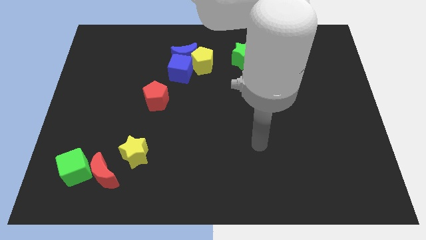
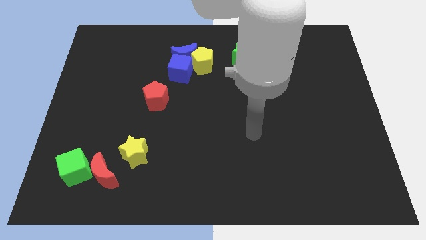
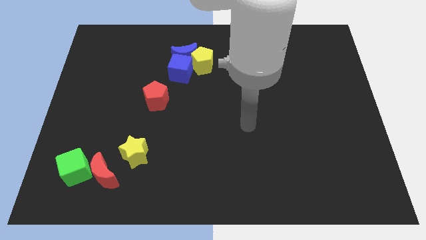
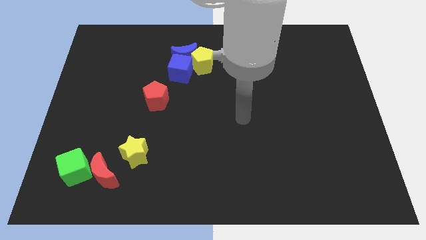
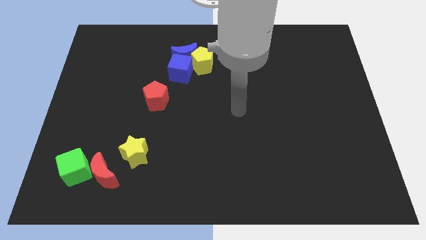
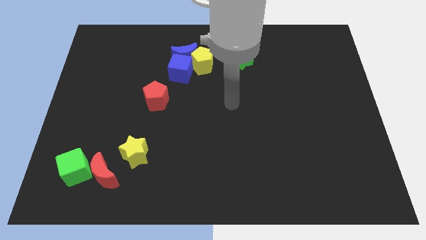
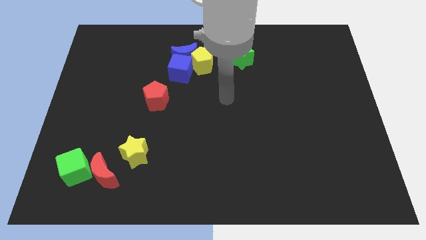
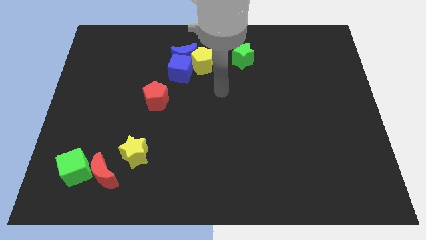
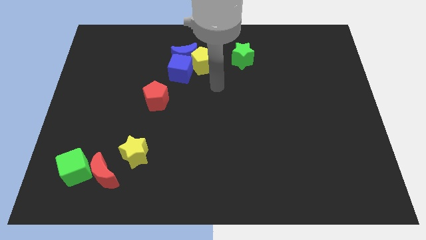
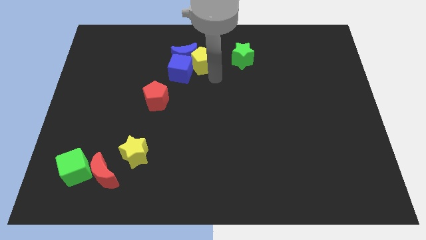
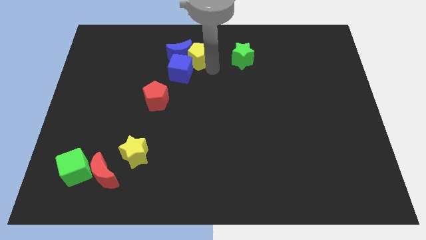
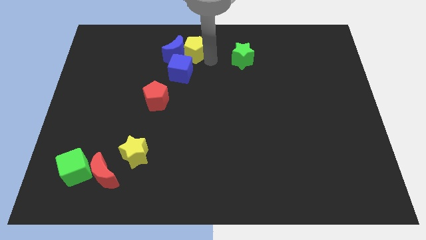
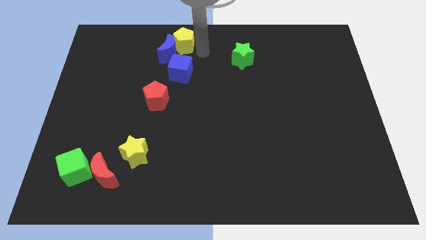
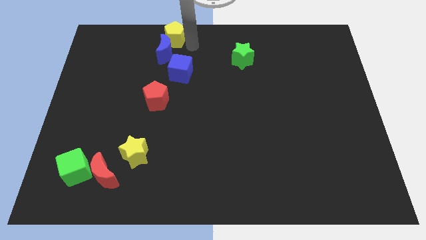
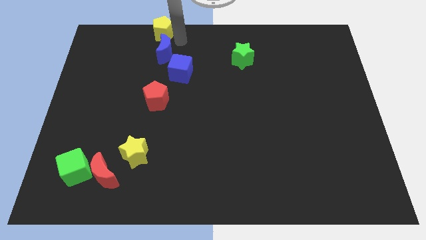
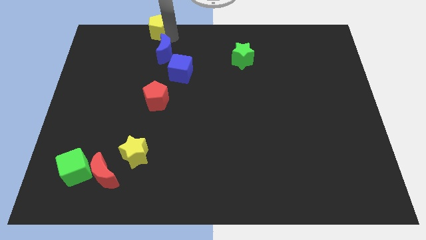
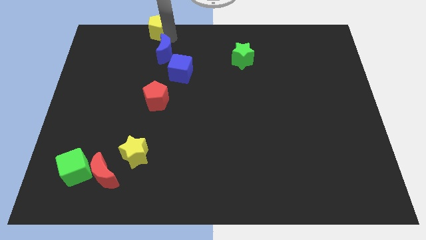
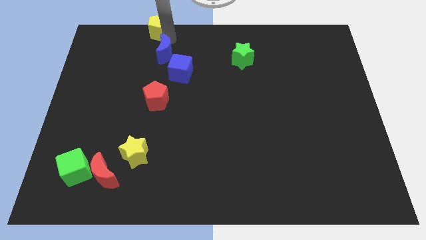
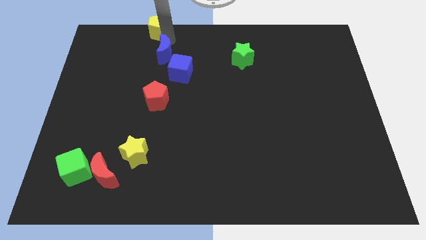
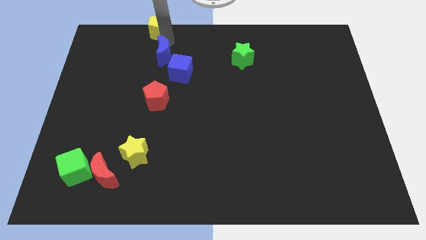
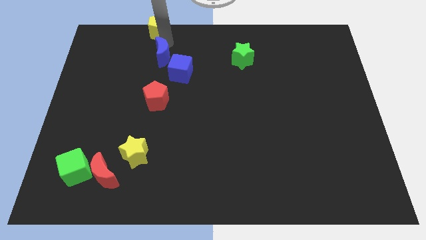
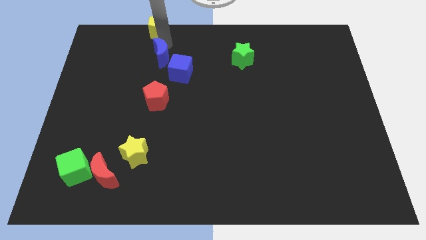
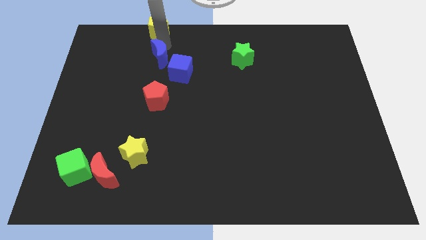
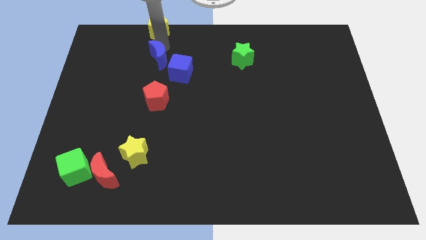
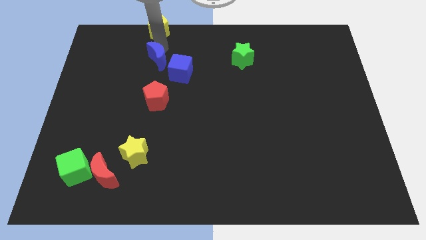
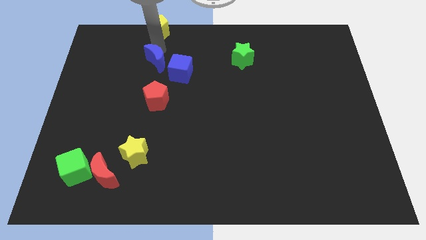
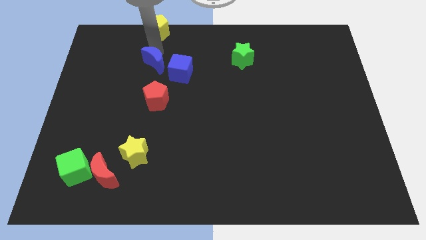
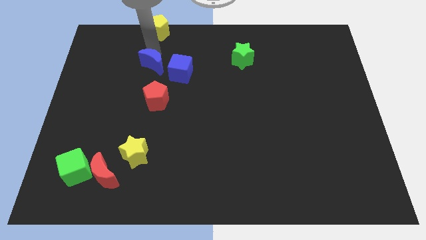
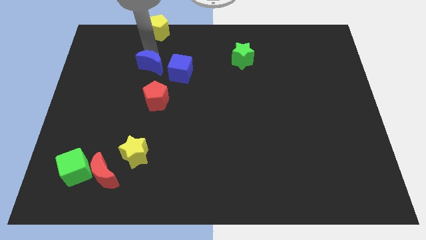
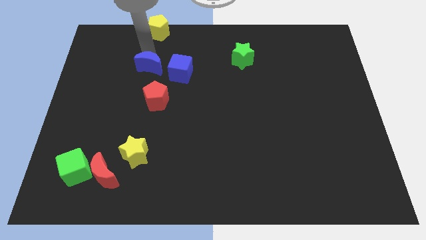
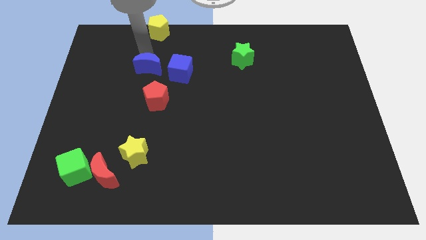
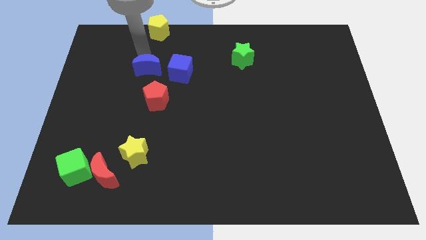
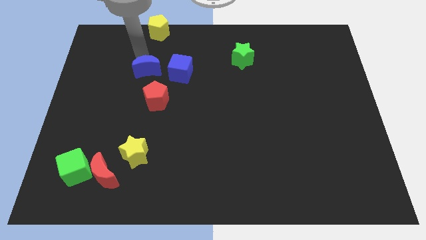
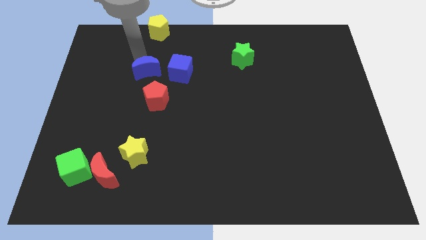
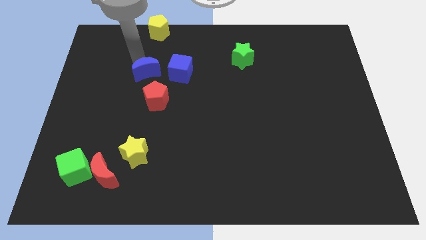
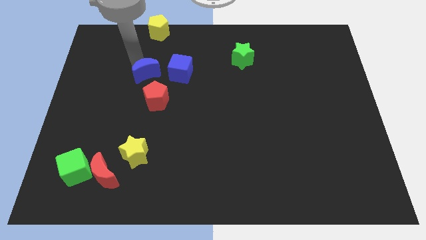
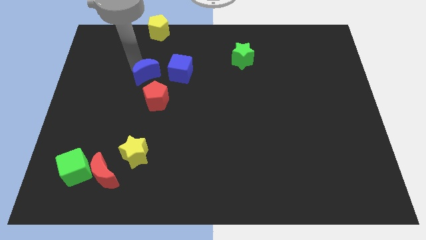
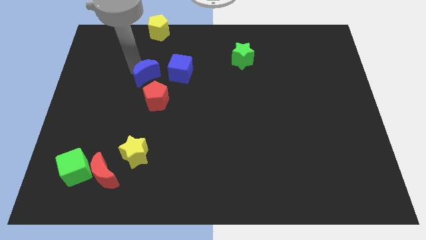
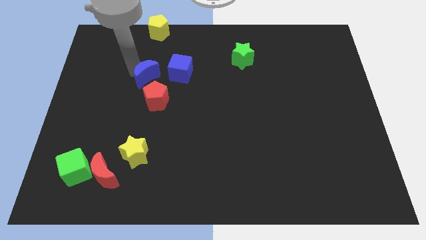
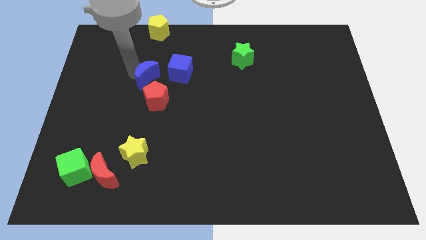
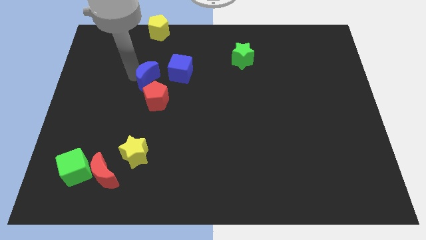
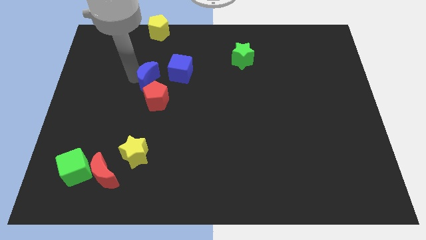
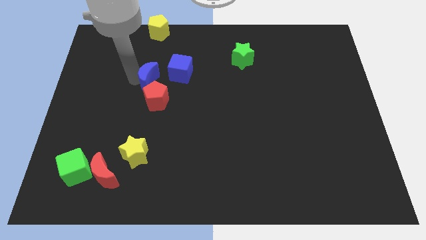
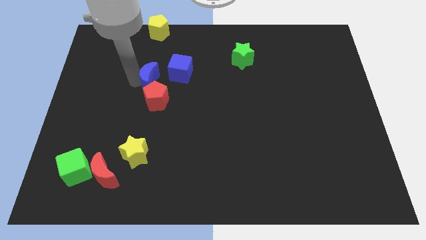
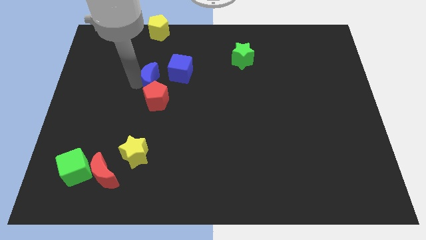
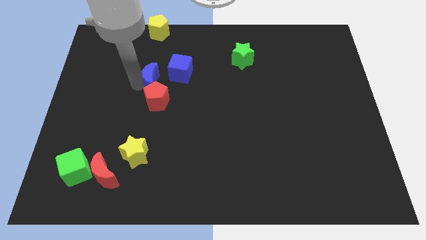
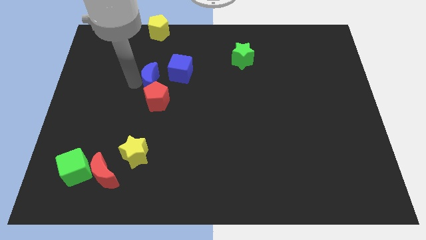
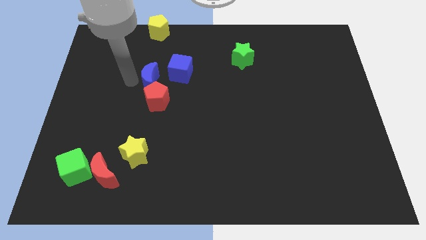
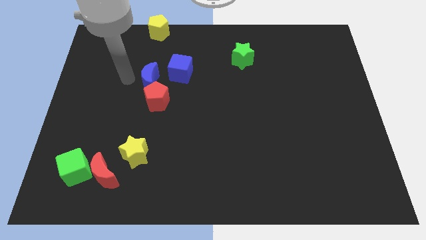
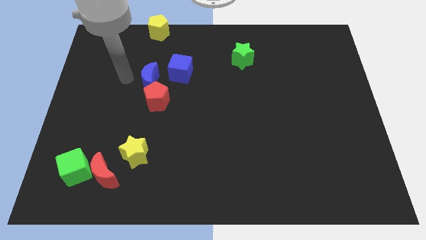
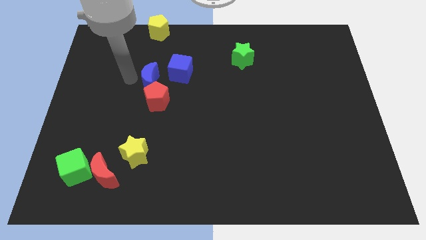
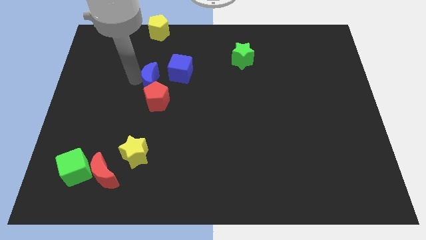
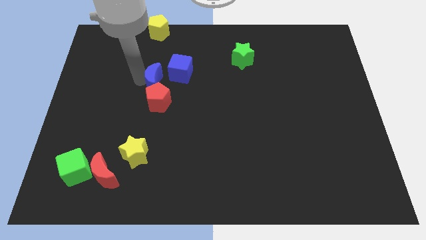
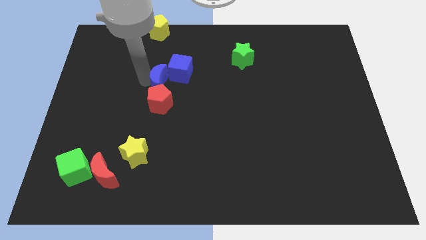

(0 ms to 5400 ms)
slide the blue moon downwards a bit

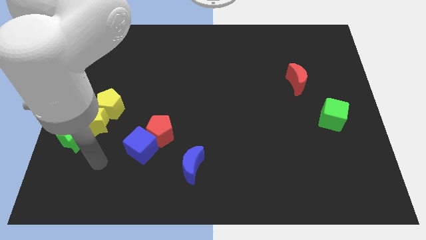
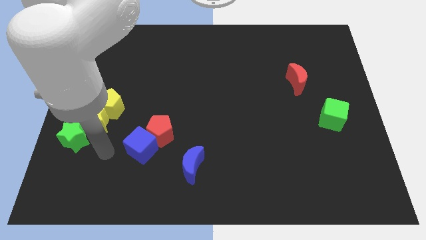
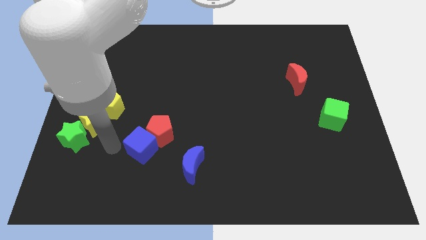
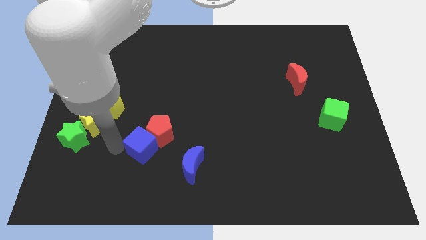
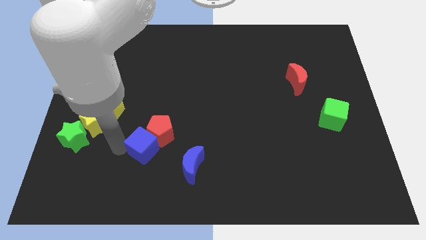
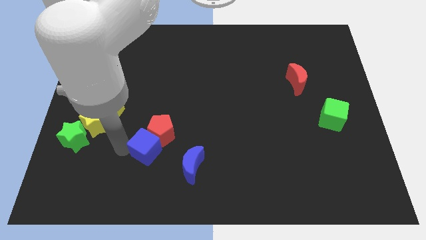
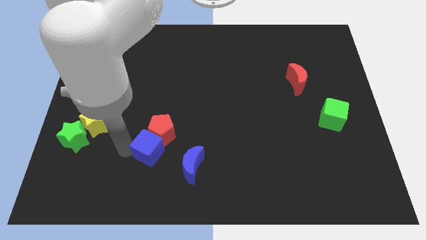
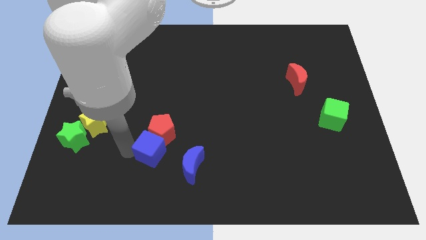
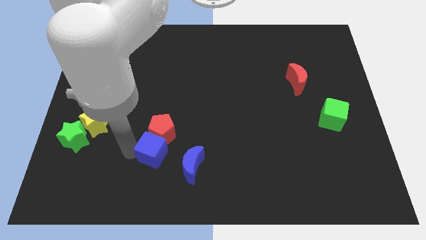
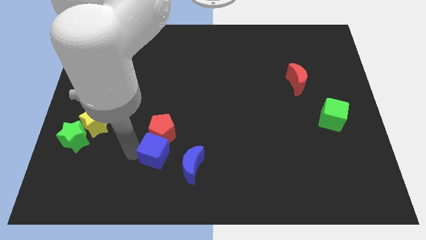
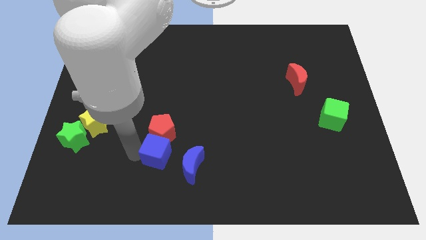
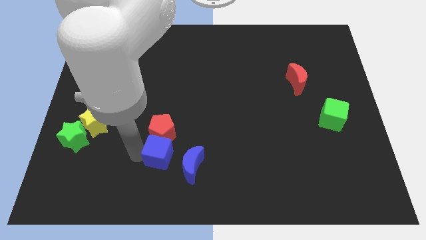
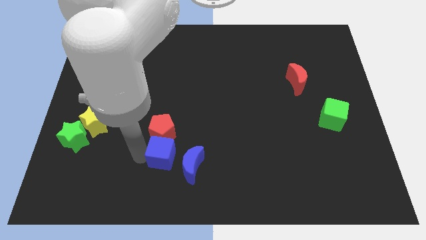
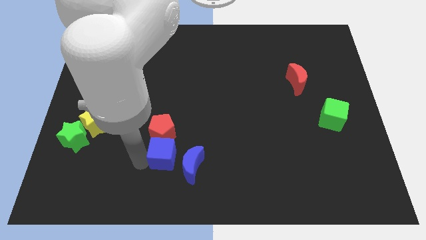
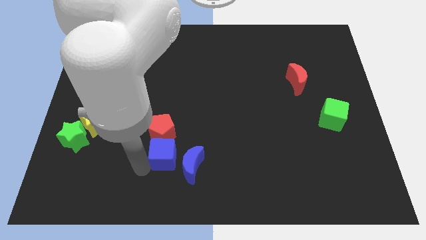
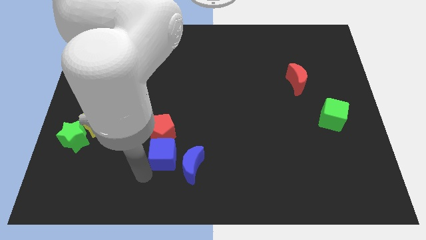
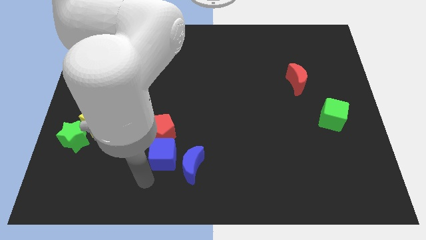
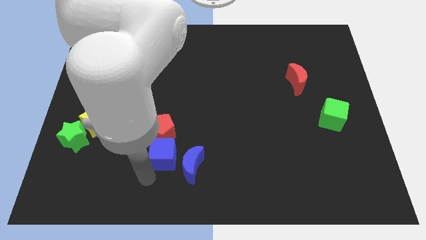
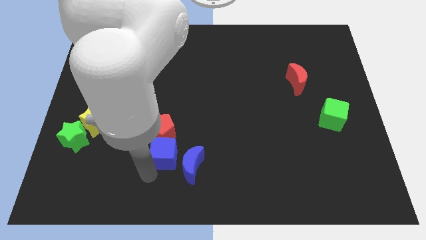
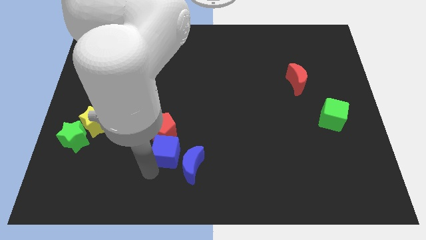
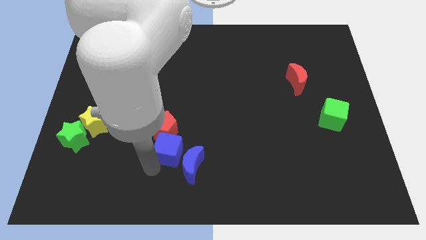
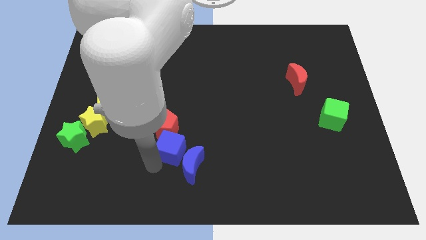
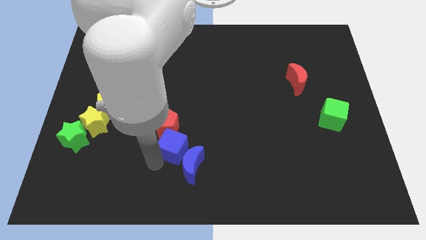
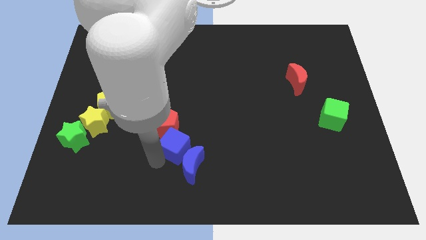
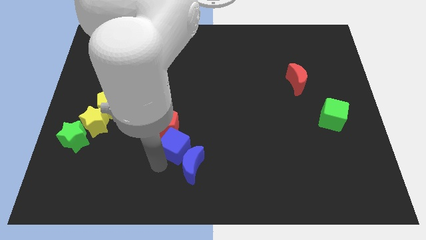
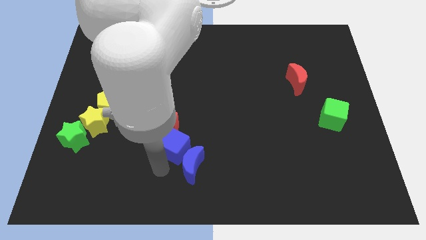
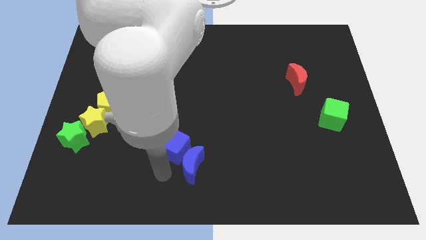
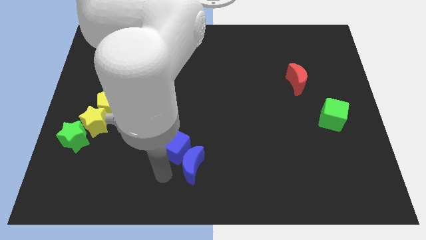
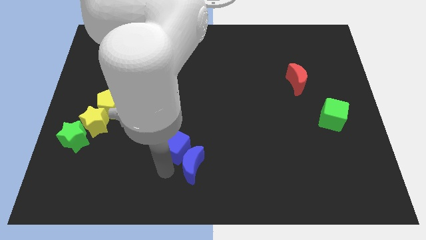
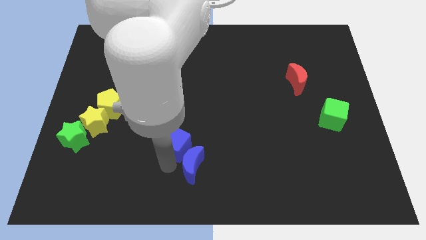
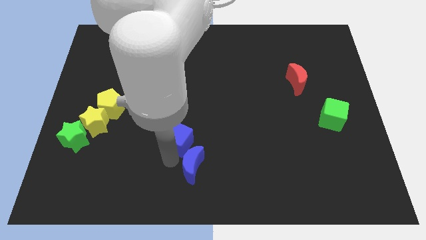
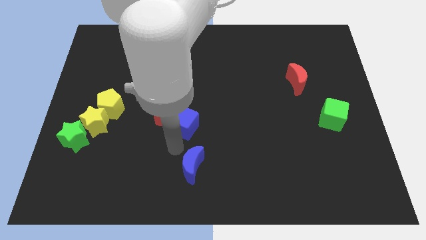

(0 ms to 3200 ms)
push the blue cube diagonally upwards and to the right somewhat

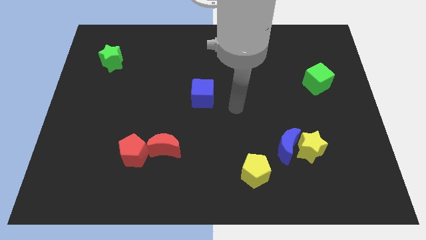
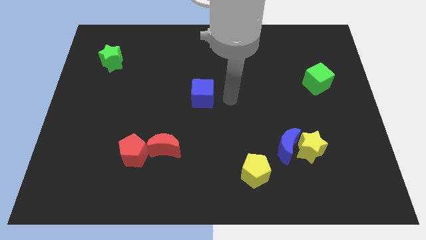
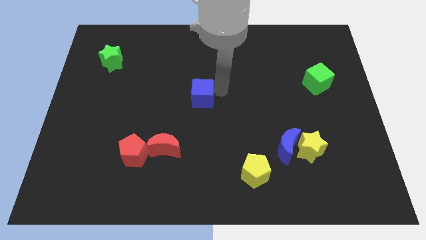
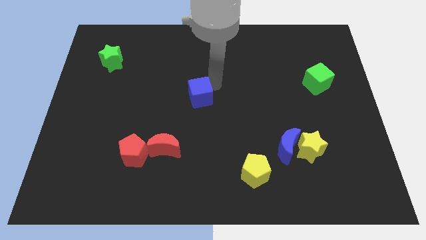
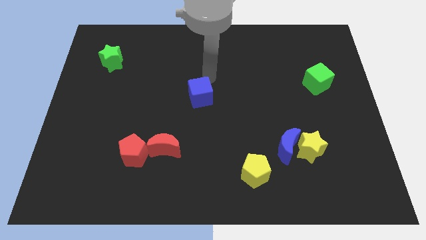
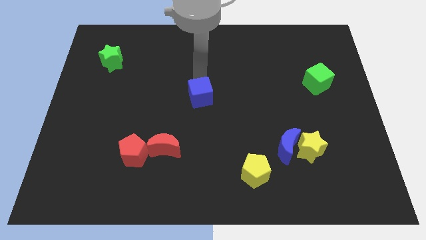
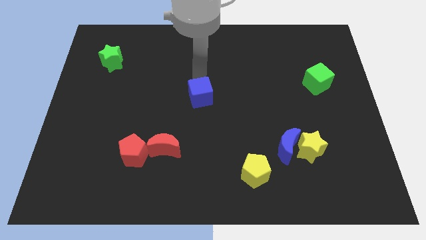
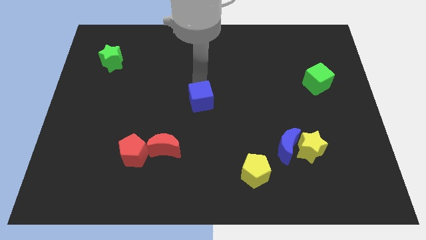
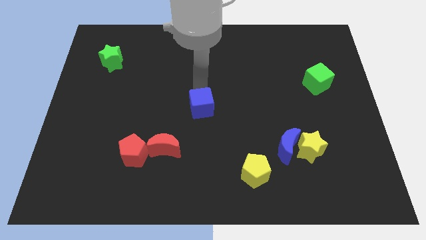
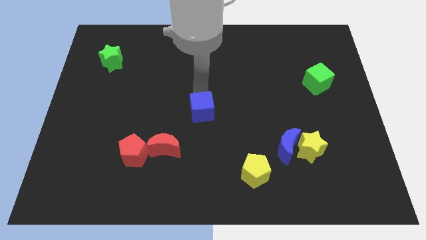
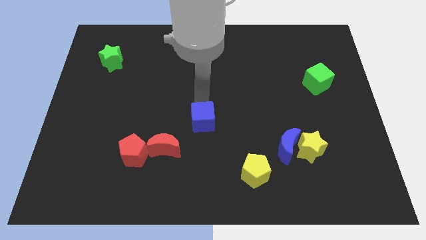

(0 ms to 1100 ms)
push the blue cube slightly downwards
